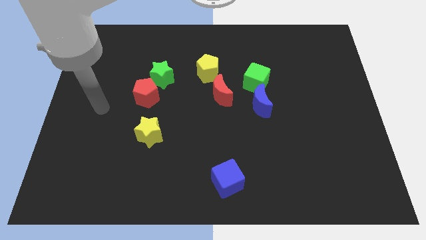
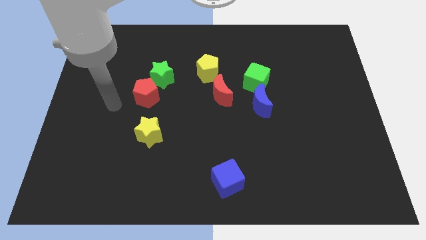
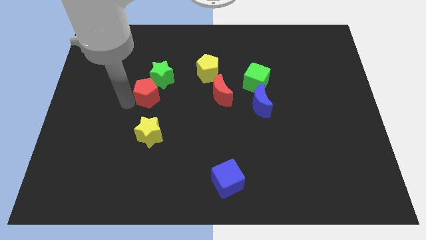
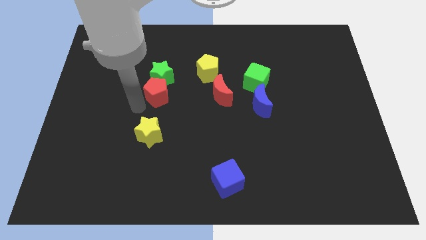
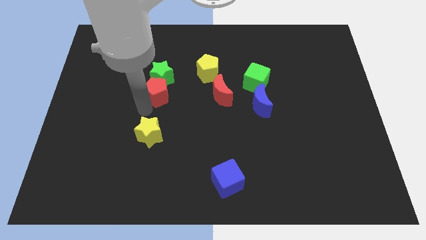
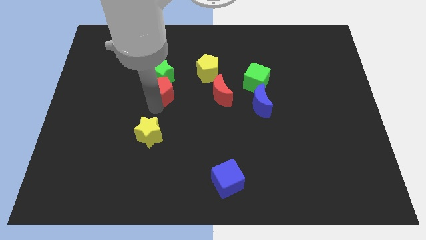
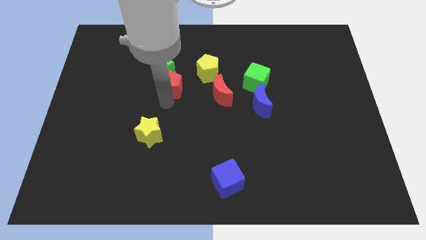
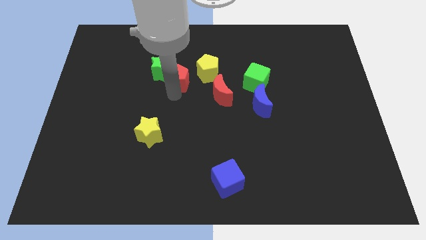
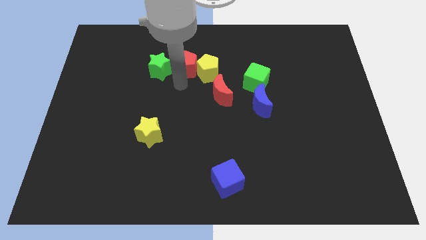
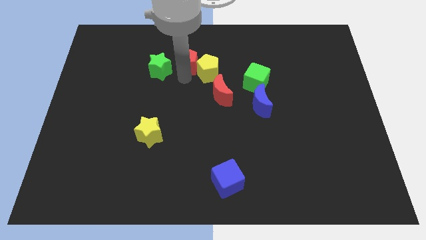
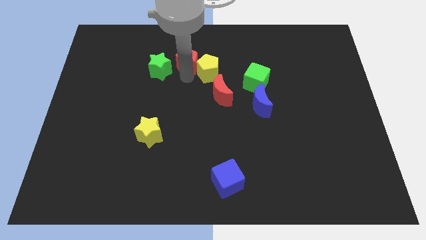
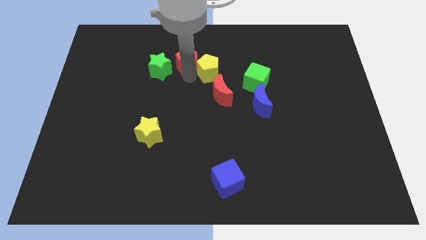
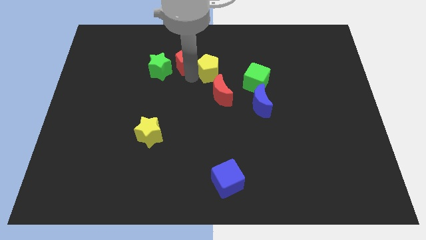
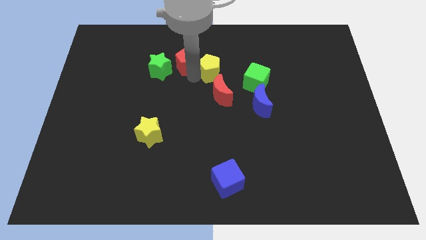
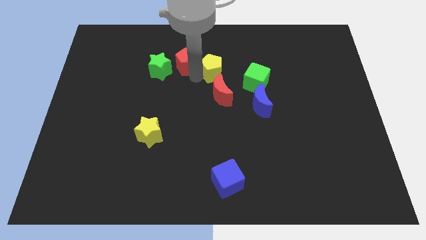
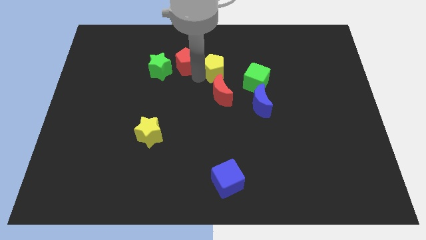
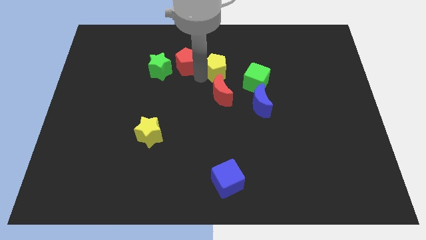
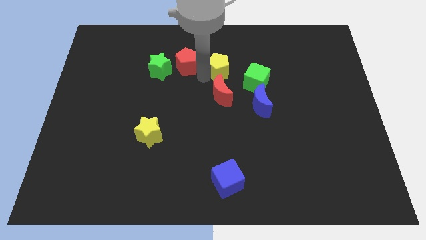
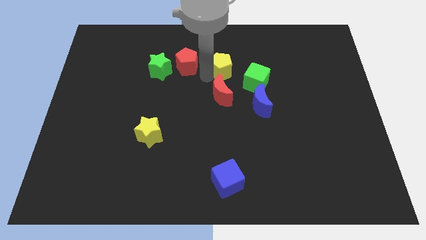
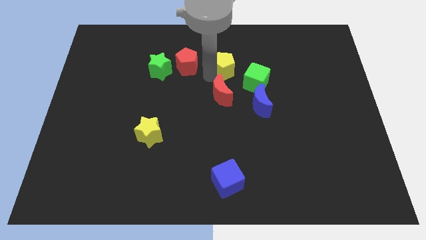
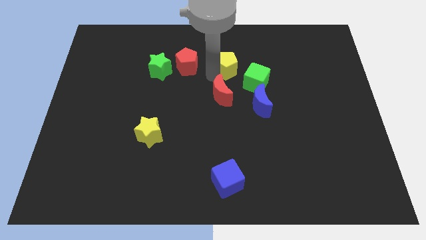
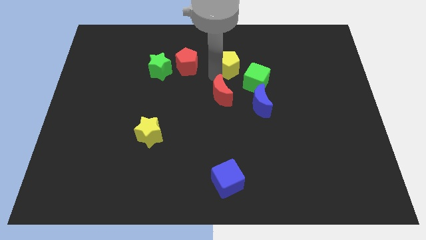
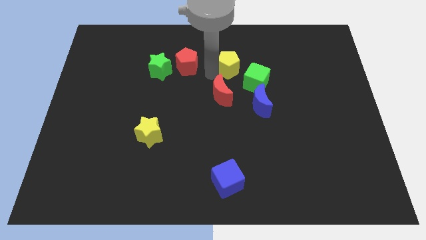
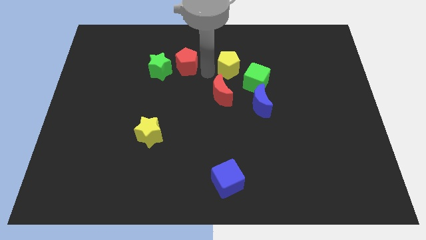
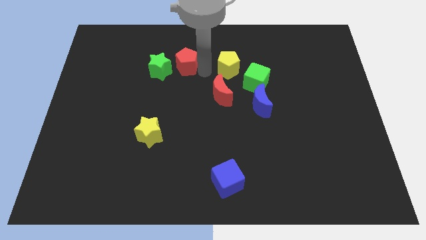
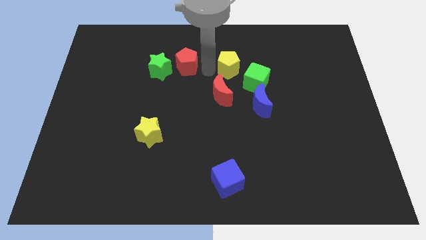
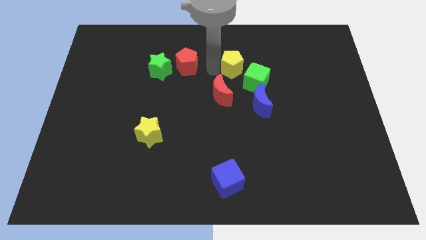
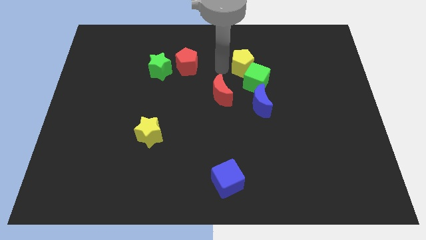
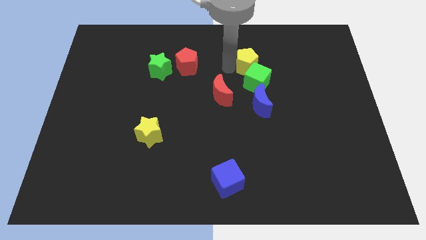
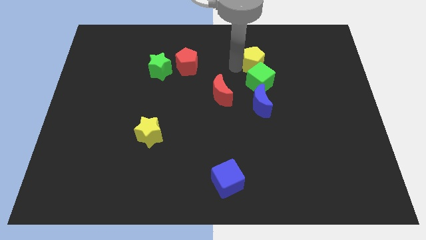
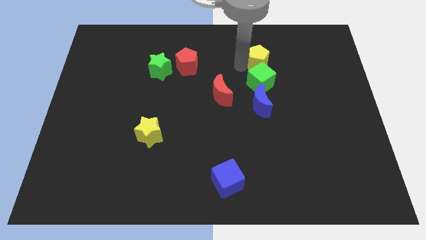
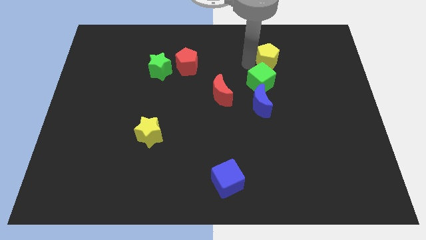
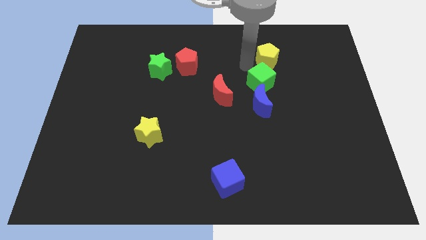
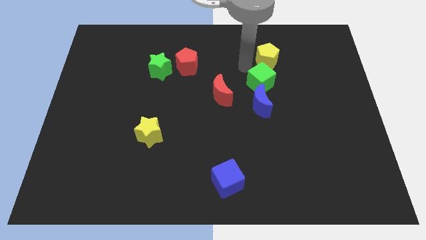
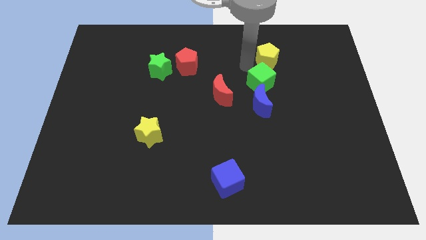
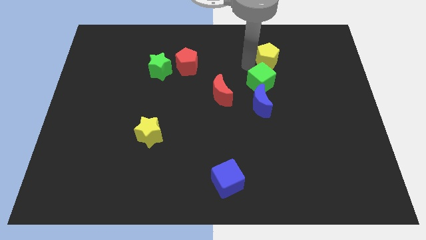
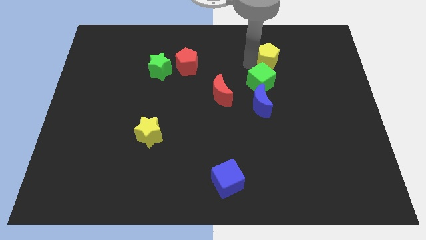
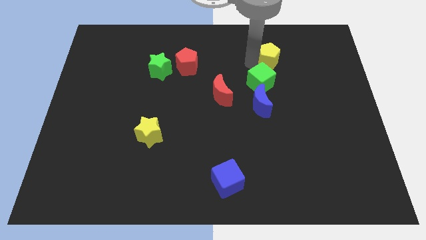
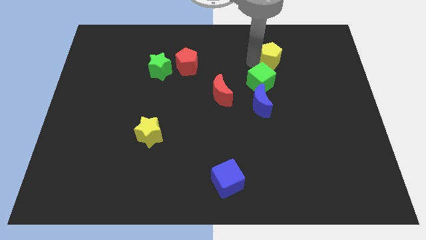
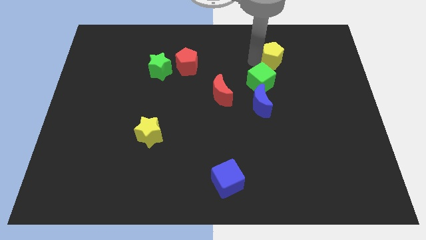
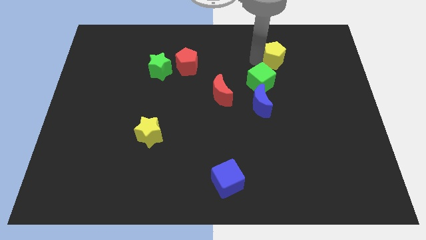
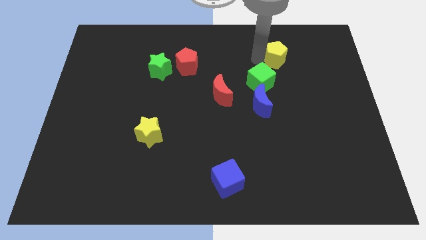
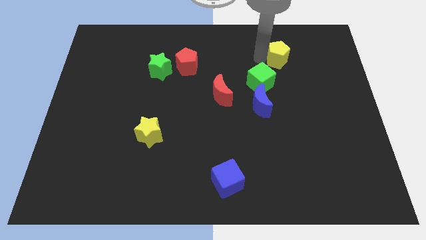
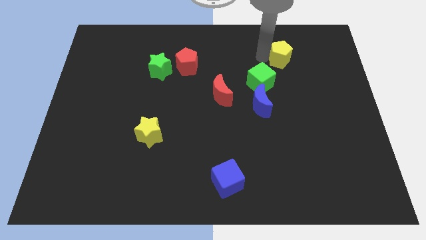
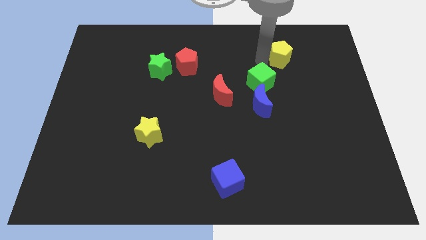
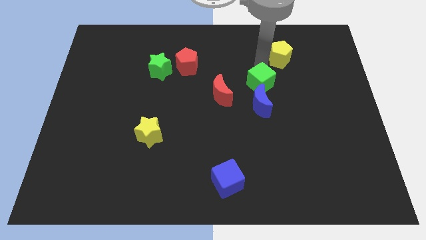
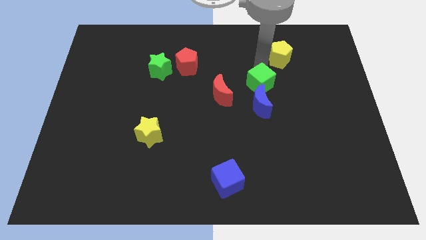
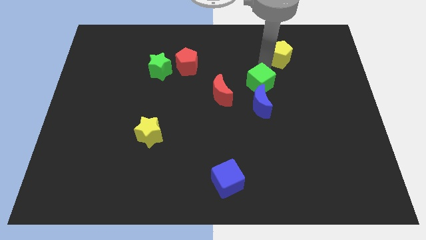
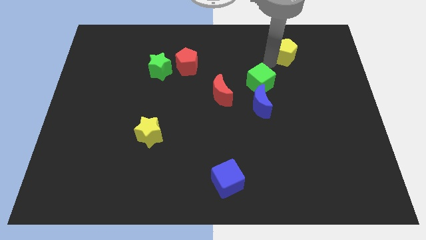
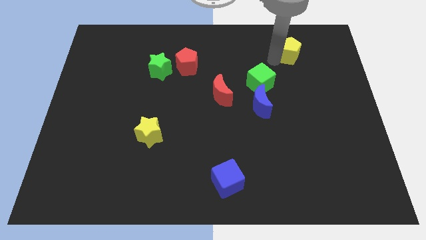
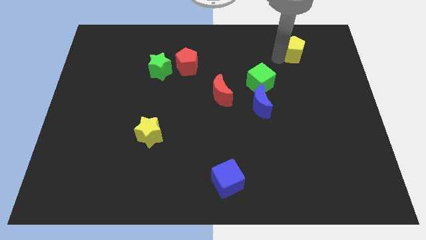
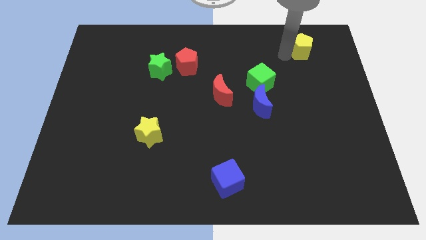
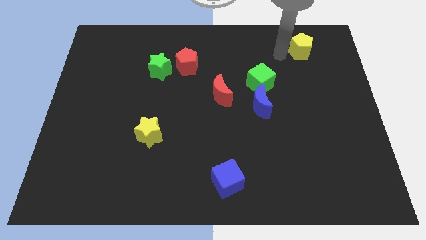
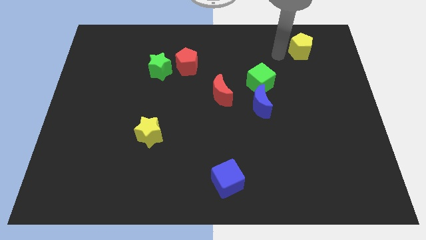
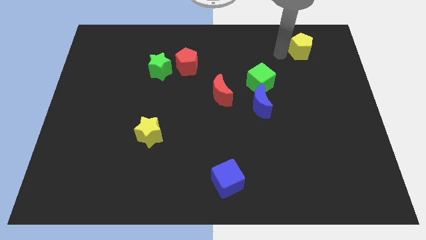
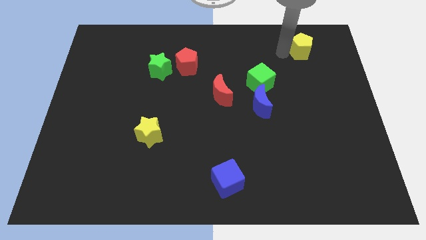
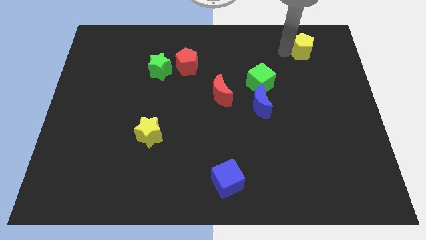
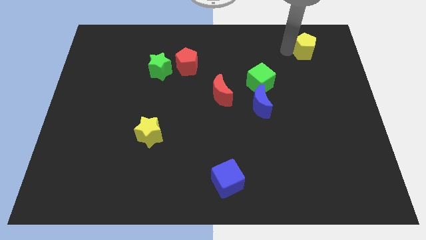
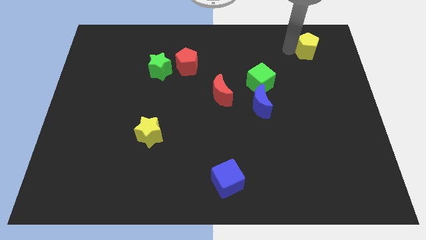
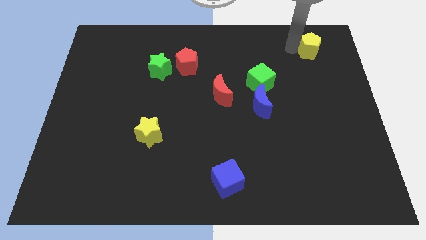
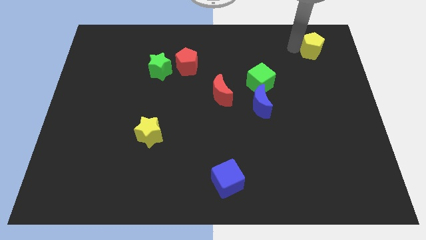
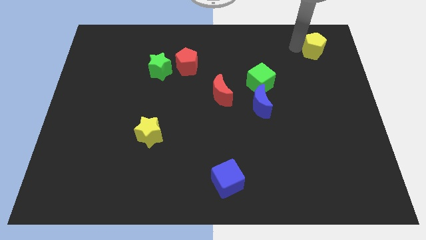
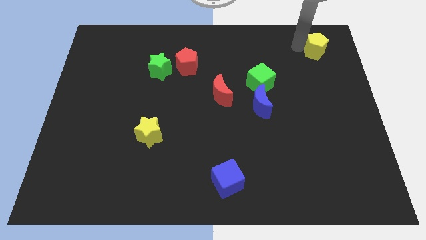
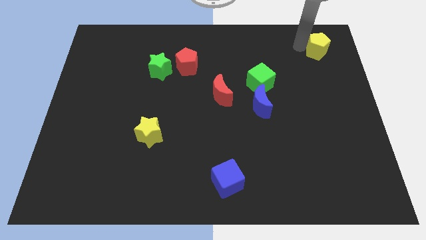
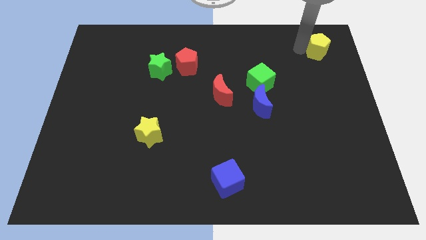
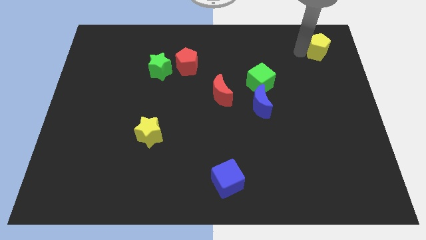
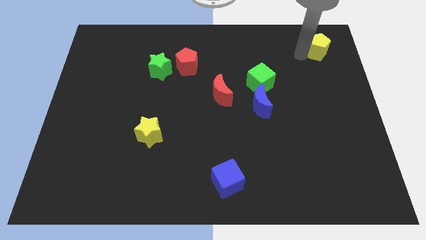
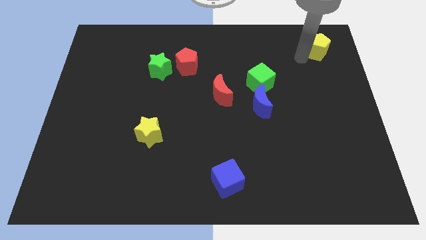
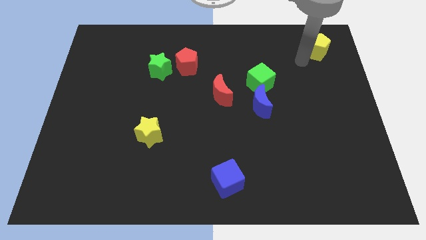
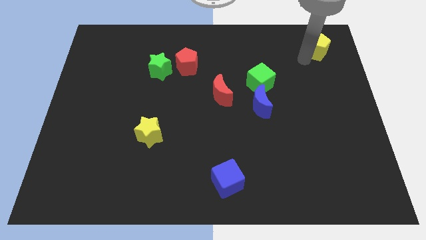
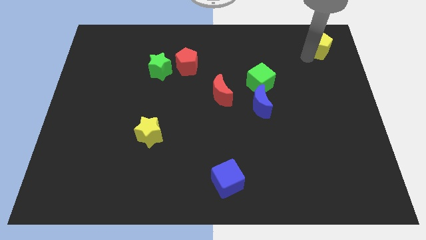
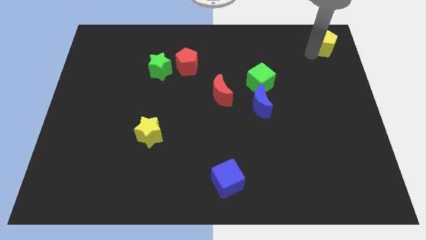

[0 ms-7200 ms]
slide the yellow pentagon to the upper right corner

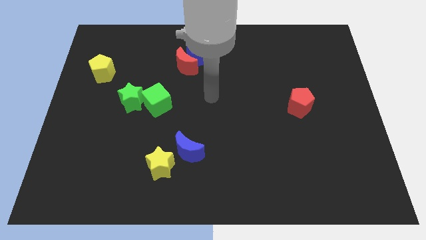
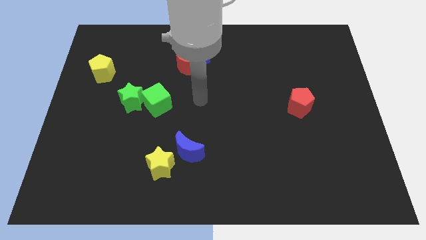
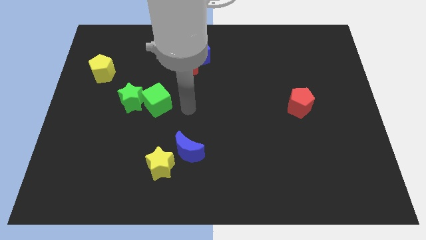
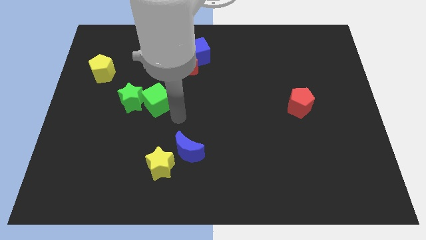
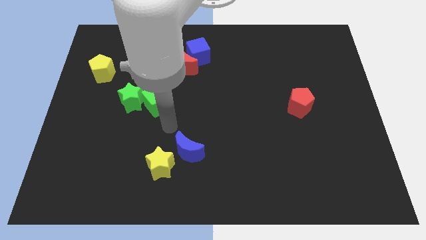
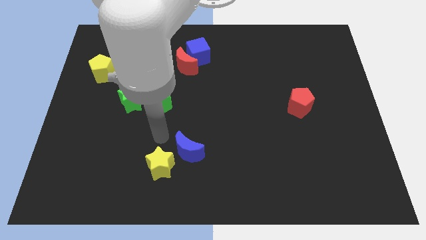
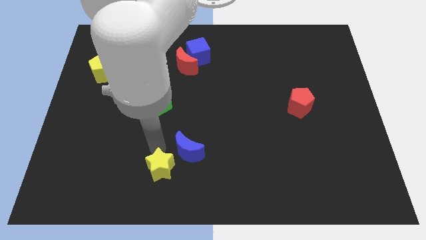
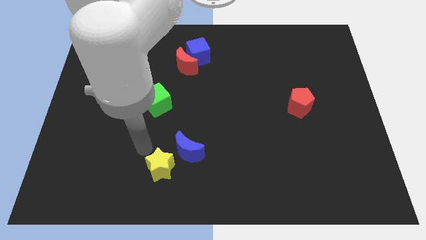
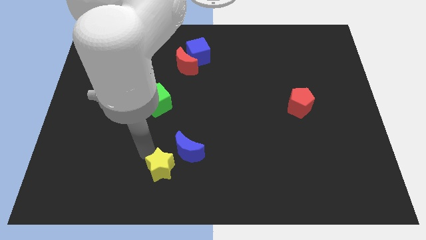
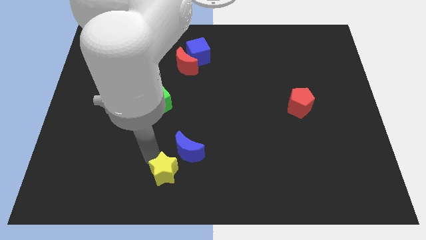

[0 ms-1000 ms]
slide the yellow star to the bottom
